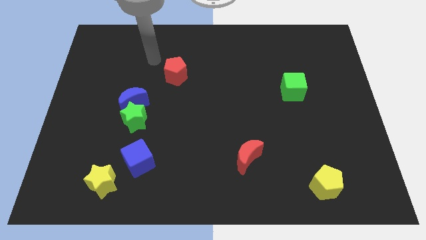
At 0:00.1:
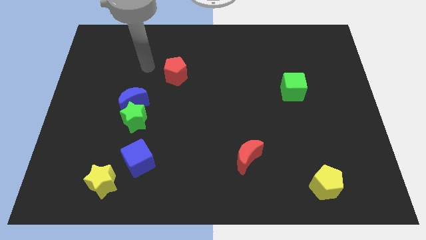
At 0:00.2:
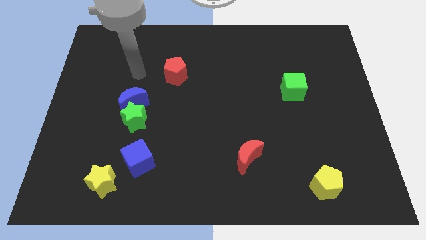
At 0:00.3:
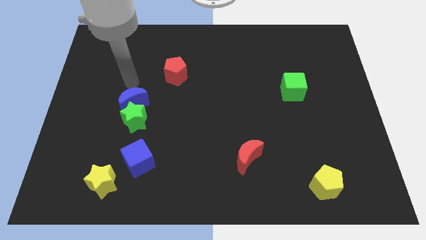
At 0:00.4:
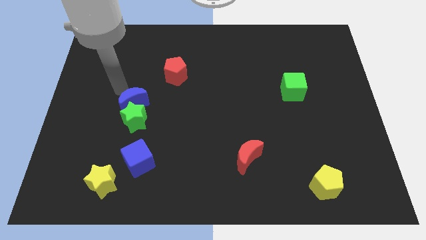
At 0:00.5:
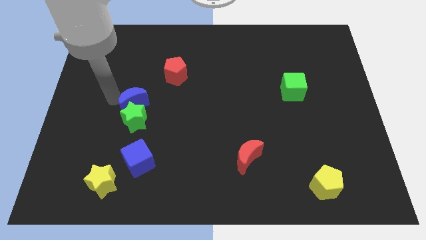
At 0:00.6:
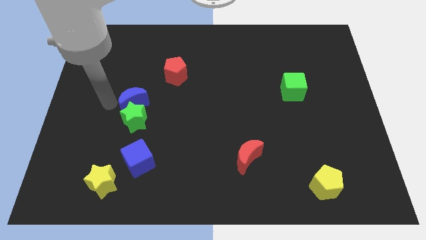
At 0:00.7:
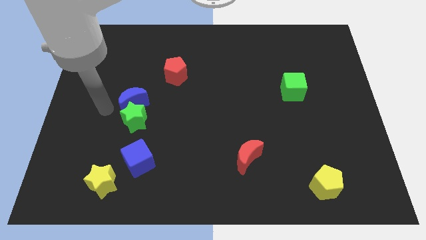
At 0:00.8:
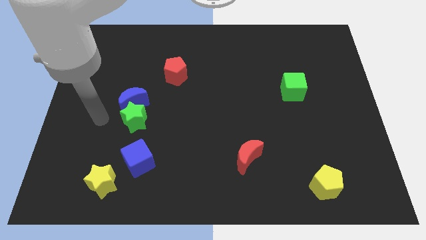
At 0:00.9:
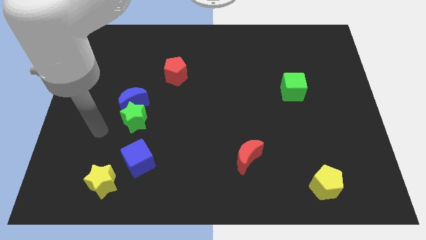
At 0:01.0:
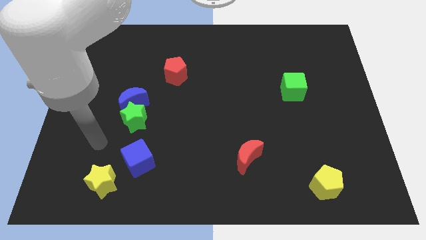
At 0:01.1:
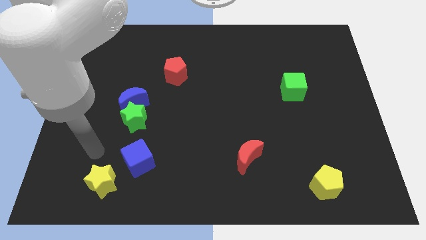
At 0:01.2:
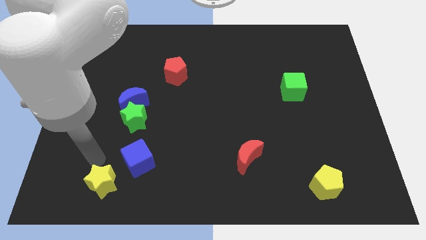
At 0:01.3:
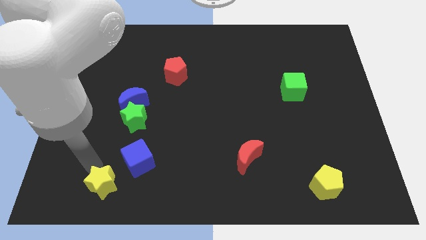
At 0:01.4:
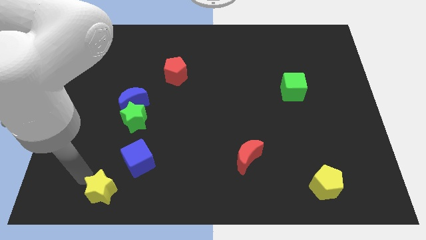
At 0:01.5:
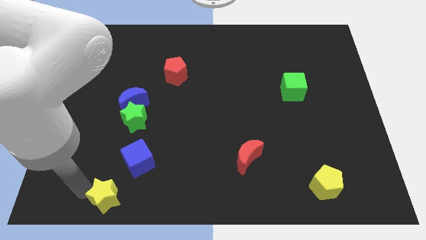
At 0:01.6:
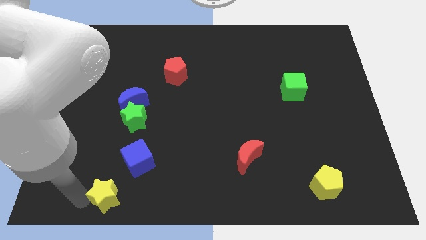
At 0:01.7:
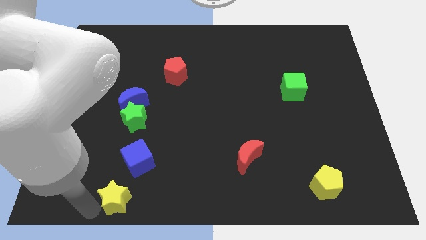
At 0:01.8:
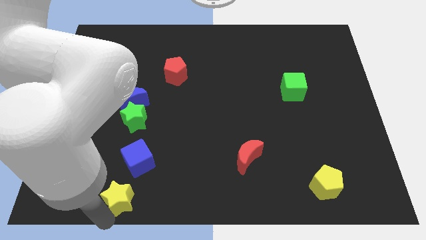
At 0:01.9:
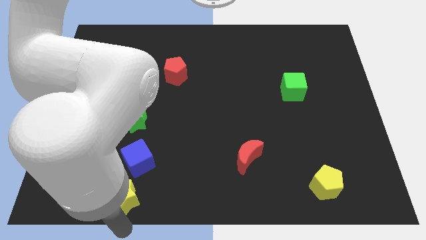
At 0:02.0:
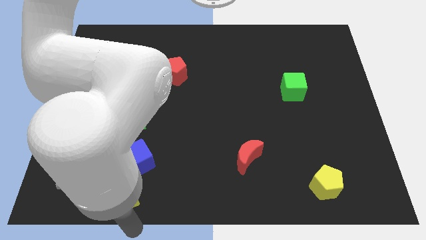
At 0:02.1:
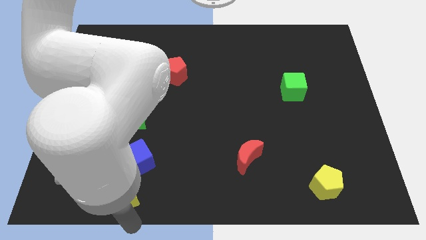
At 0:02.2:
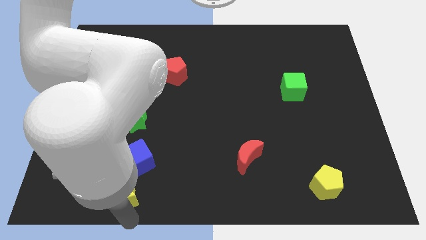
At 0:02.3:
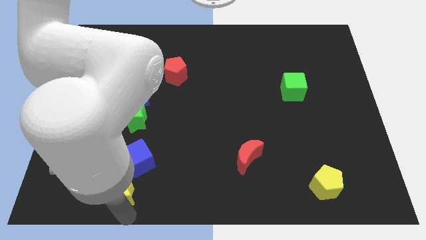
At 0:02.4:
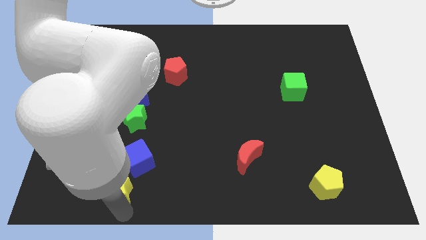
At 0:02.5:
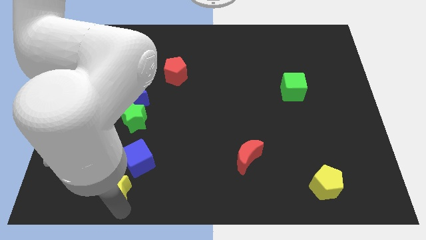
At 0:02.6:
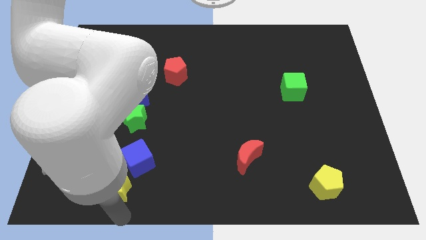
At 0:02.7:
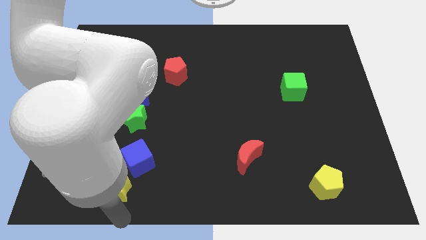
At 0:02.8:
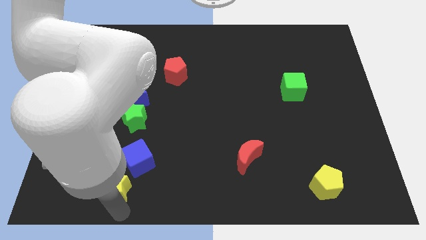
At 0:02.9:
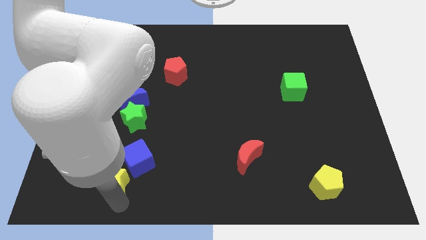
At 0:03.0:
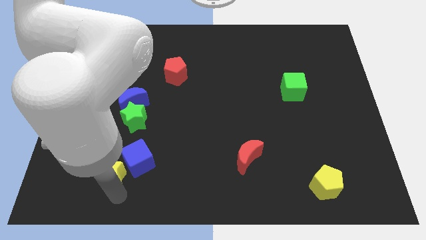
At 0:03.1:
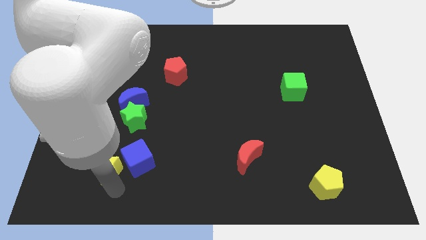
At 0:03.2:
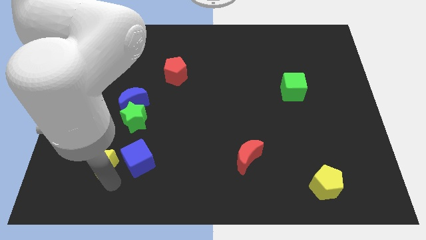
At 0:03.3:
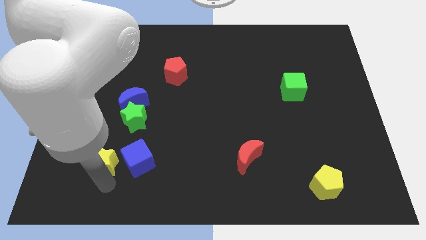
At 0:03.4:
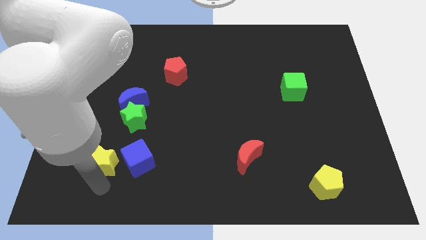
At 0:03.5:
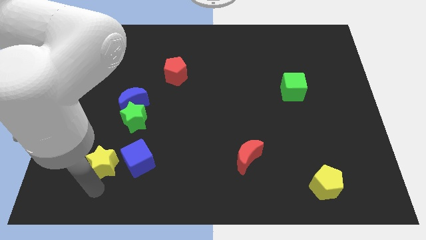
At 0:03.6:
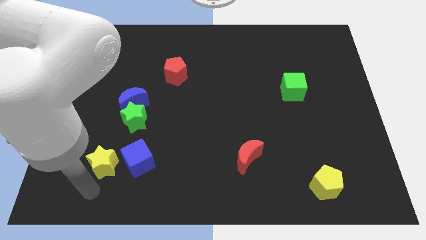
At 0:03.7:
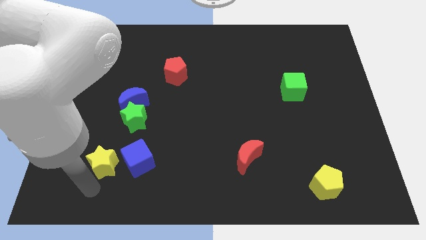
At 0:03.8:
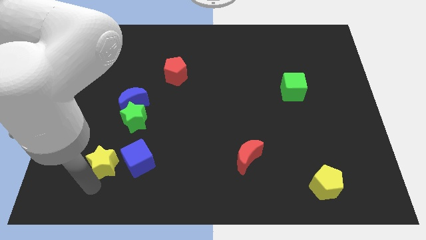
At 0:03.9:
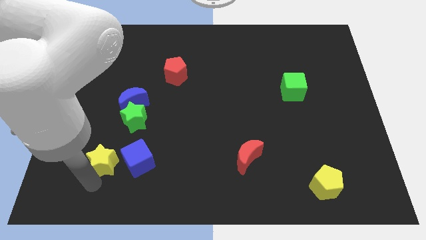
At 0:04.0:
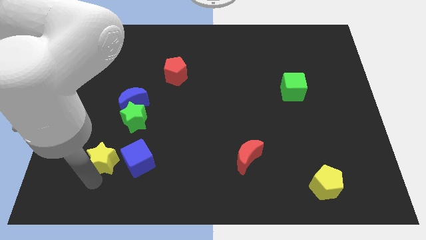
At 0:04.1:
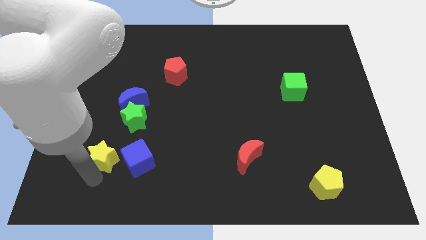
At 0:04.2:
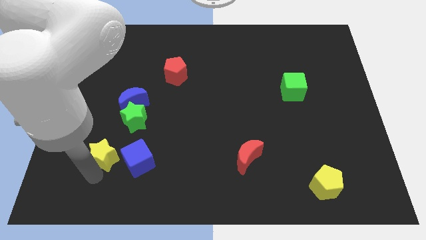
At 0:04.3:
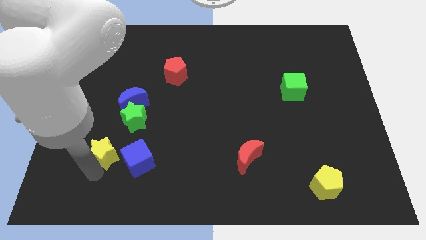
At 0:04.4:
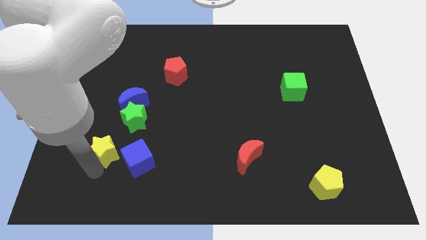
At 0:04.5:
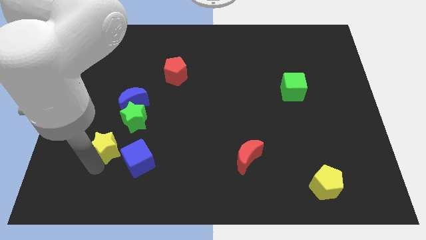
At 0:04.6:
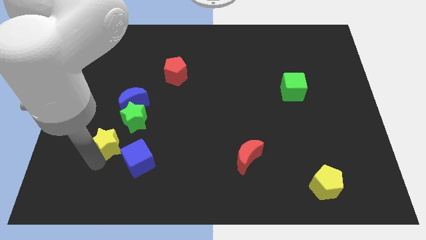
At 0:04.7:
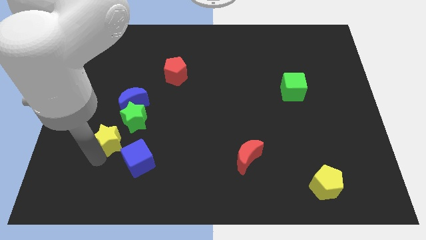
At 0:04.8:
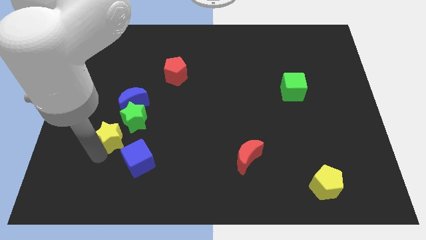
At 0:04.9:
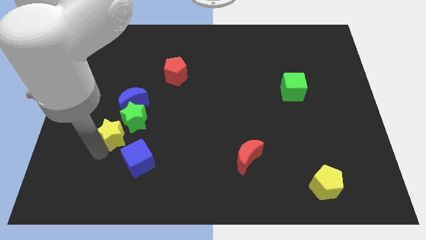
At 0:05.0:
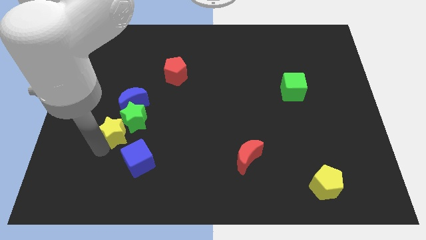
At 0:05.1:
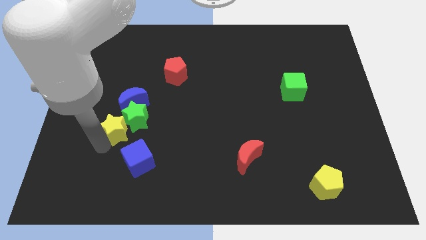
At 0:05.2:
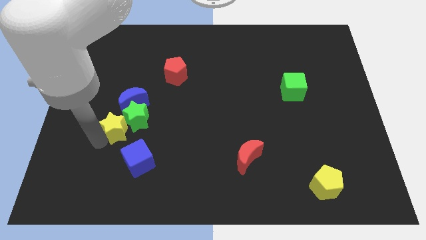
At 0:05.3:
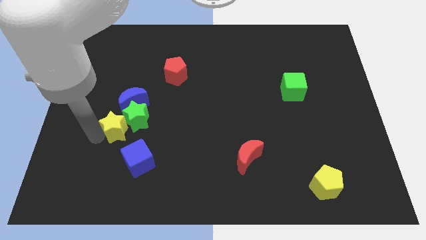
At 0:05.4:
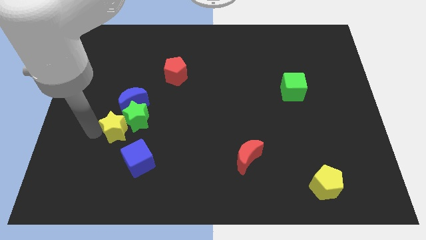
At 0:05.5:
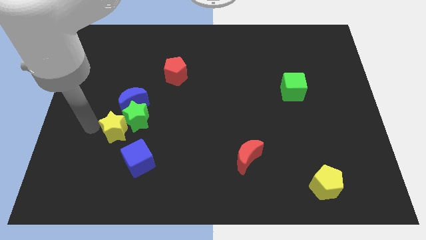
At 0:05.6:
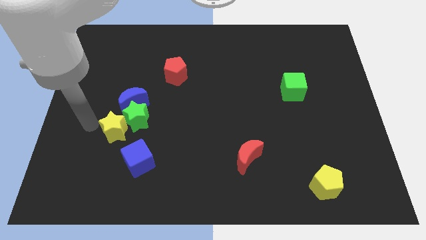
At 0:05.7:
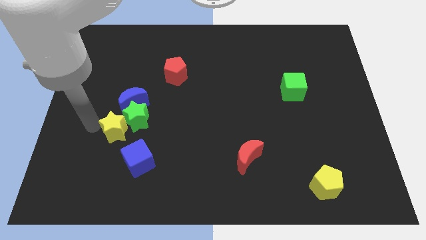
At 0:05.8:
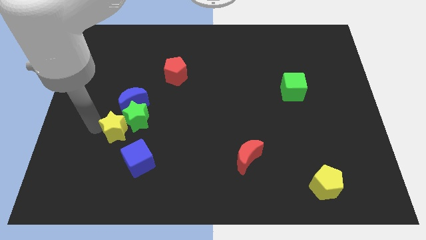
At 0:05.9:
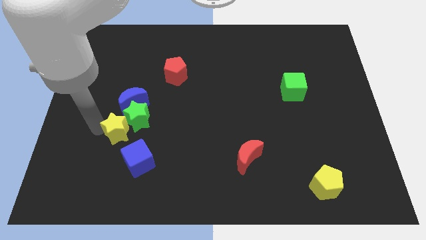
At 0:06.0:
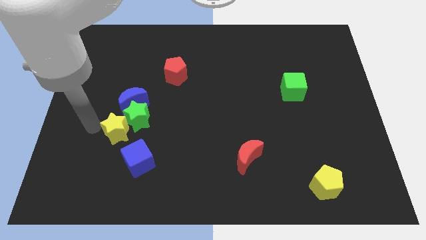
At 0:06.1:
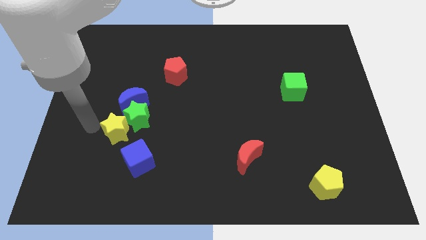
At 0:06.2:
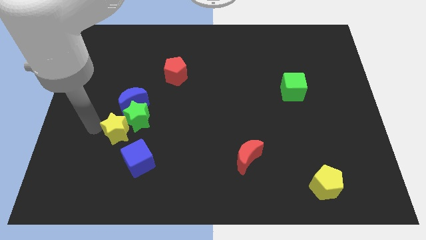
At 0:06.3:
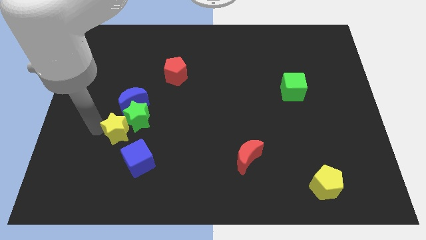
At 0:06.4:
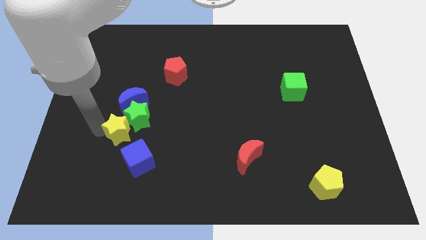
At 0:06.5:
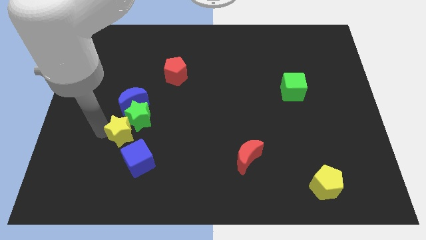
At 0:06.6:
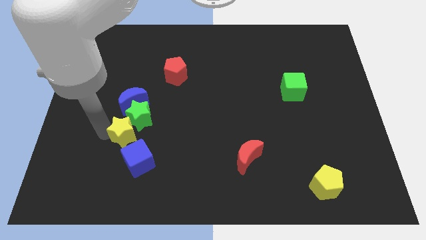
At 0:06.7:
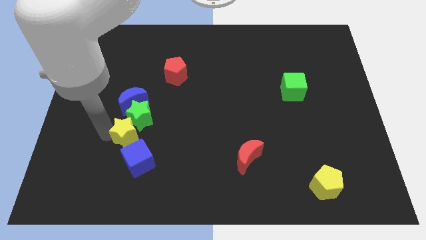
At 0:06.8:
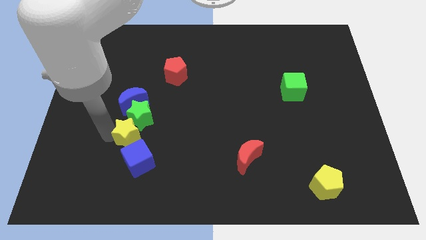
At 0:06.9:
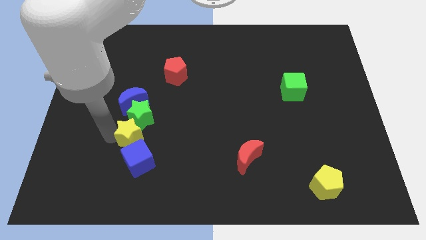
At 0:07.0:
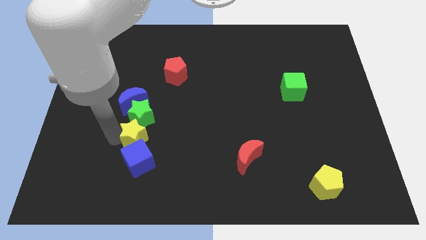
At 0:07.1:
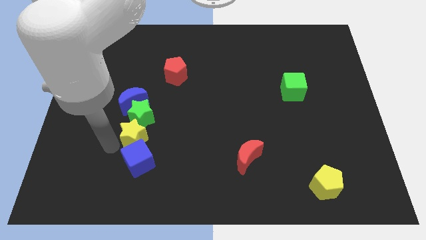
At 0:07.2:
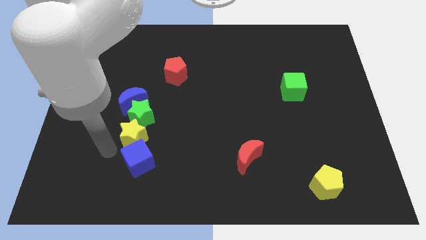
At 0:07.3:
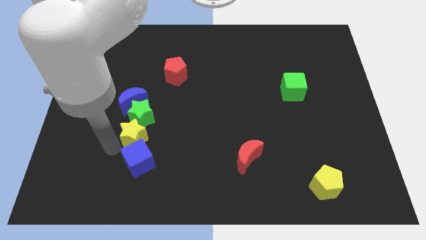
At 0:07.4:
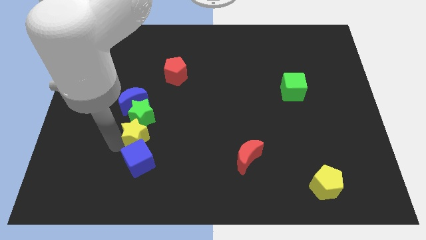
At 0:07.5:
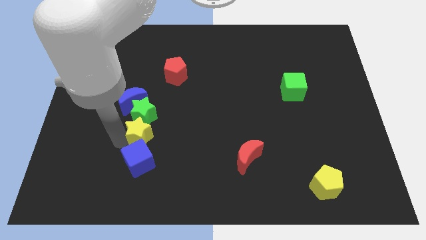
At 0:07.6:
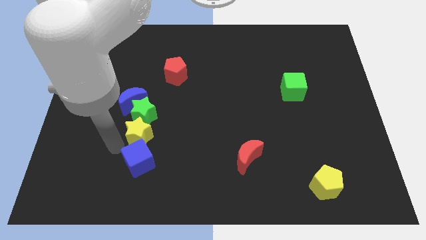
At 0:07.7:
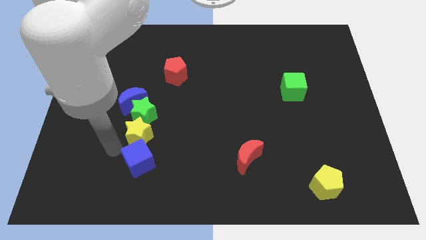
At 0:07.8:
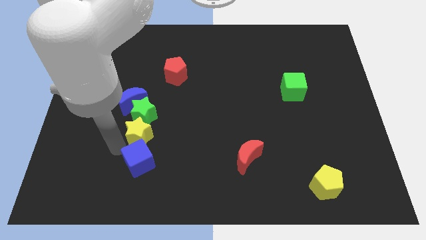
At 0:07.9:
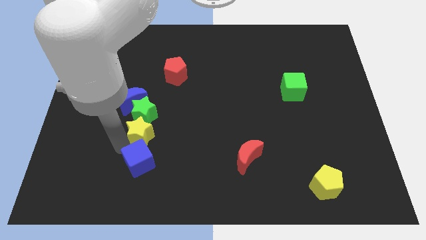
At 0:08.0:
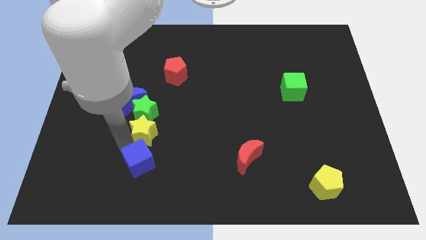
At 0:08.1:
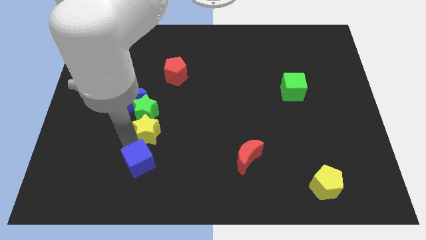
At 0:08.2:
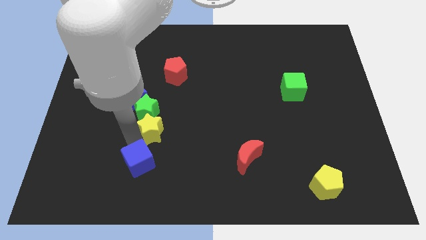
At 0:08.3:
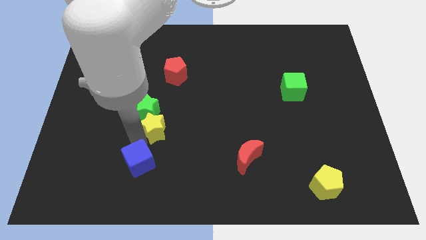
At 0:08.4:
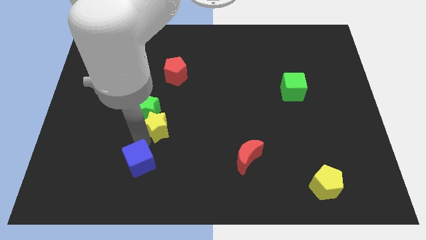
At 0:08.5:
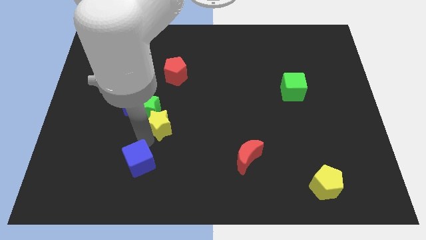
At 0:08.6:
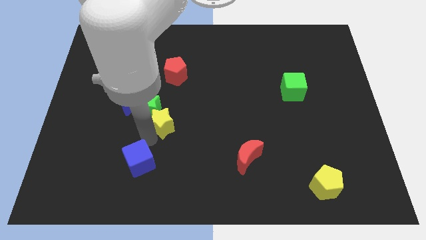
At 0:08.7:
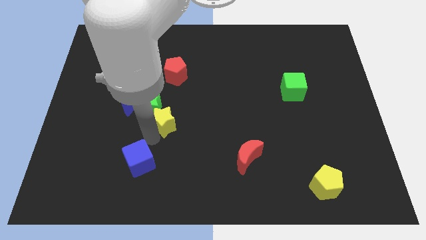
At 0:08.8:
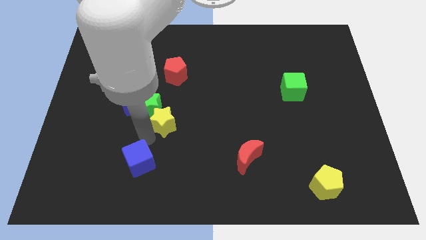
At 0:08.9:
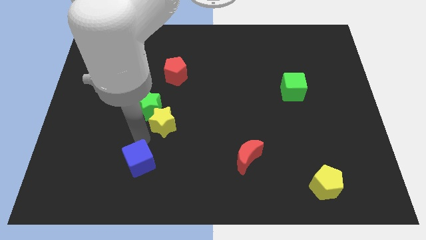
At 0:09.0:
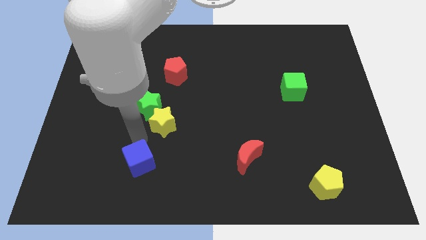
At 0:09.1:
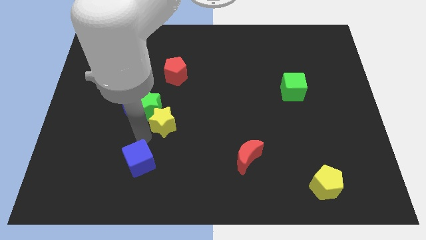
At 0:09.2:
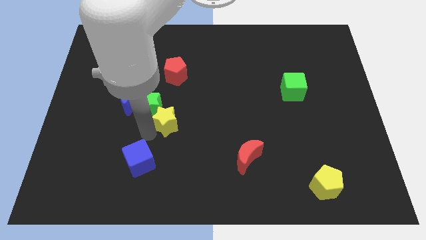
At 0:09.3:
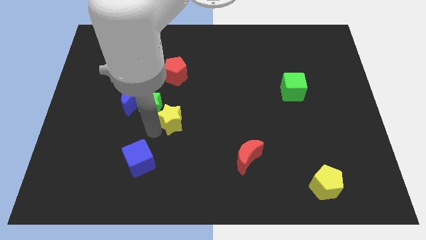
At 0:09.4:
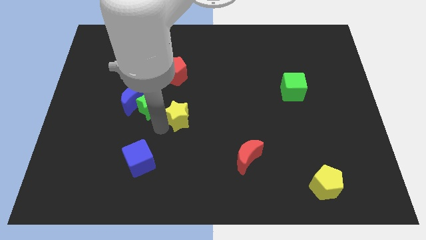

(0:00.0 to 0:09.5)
slide the yellow star upwards and then to the right
